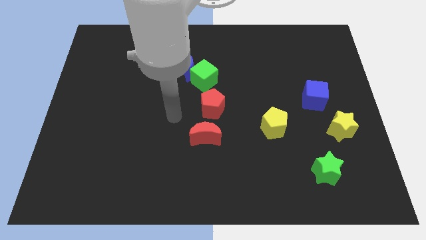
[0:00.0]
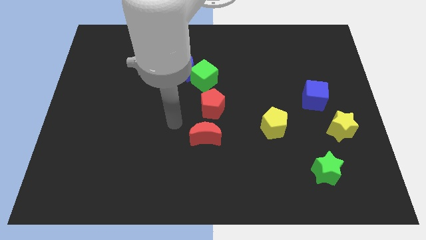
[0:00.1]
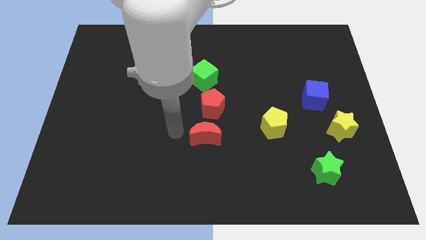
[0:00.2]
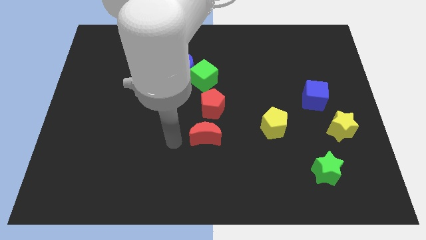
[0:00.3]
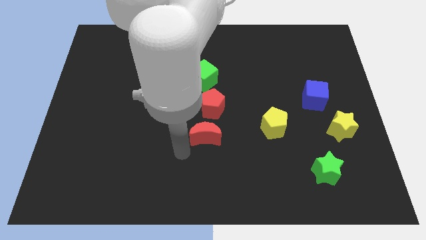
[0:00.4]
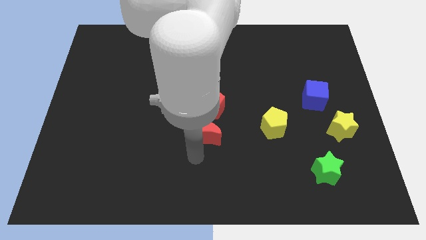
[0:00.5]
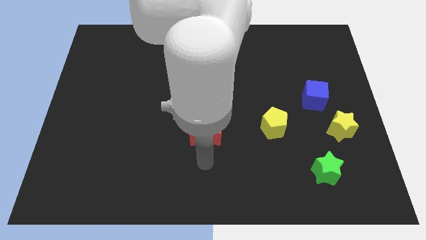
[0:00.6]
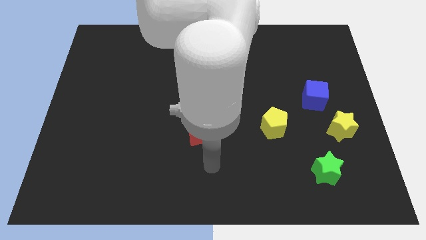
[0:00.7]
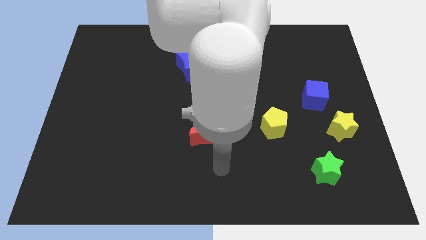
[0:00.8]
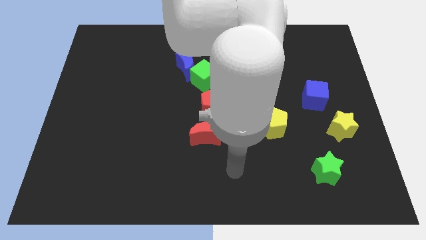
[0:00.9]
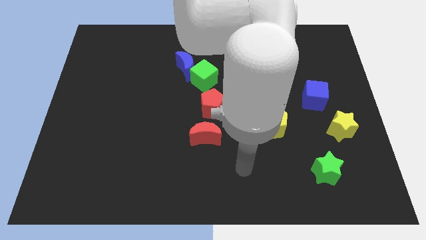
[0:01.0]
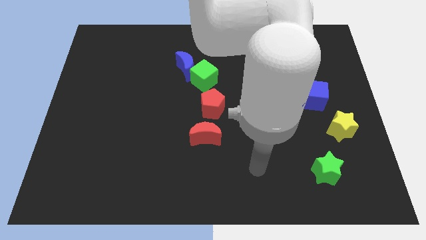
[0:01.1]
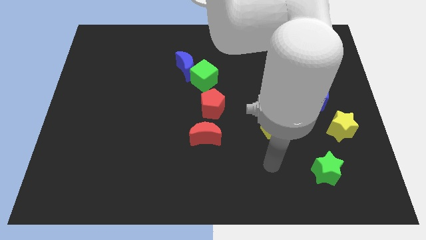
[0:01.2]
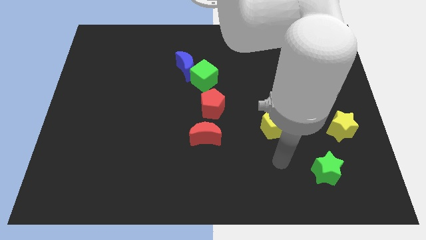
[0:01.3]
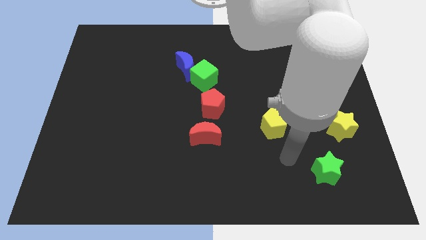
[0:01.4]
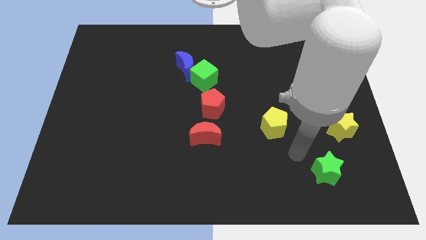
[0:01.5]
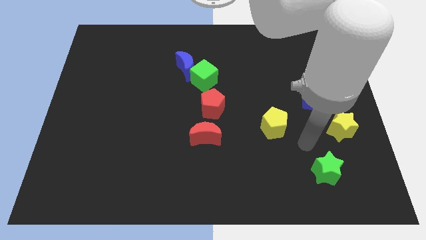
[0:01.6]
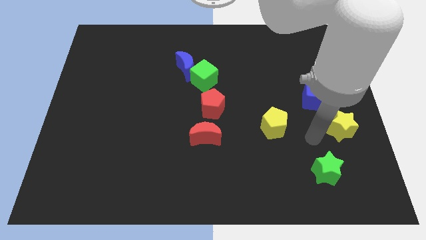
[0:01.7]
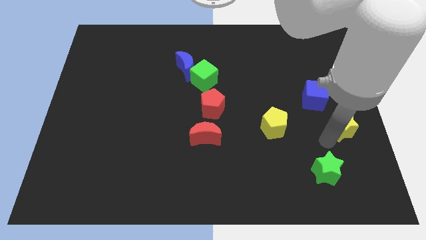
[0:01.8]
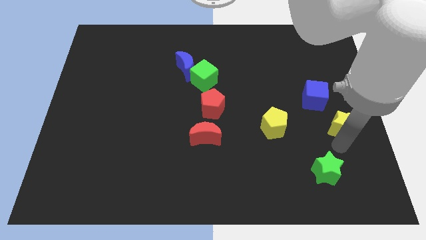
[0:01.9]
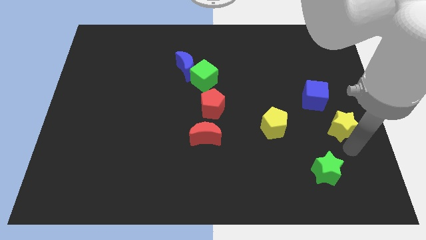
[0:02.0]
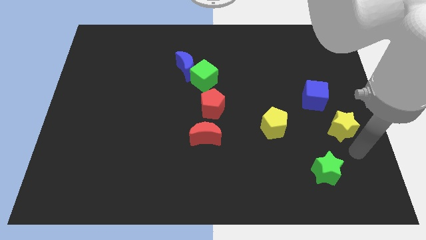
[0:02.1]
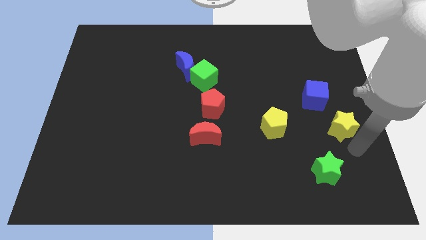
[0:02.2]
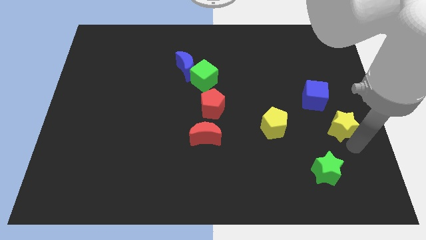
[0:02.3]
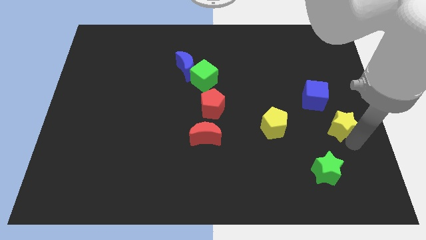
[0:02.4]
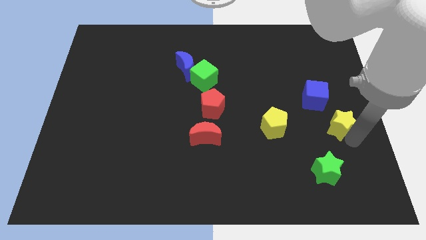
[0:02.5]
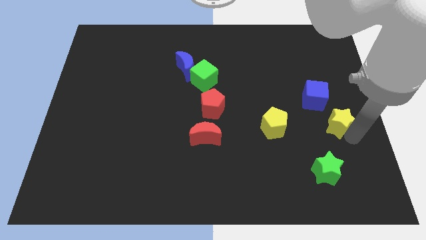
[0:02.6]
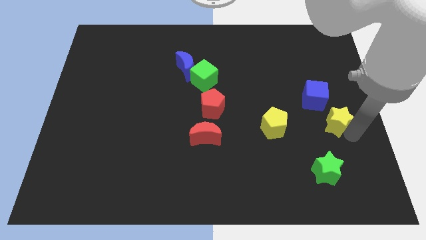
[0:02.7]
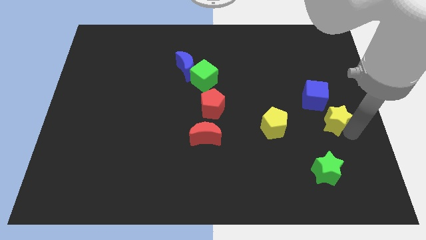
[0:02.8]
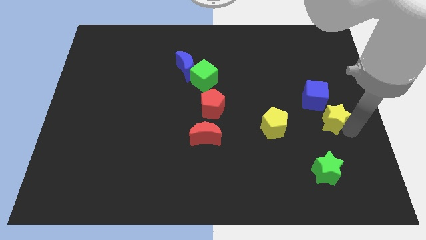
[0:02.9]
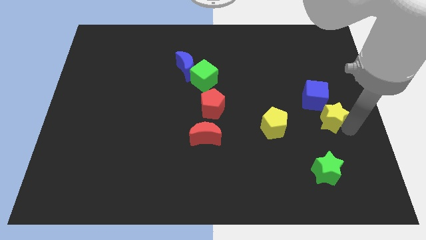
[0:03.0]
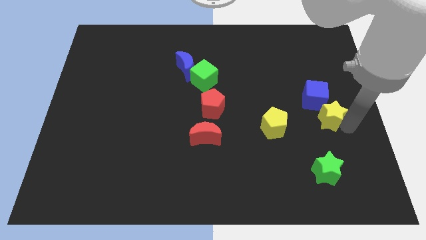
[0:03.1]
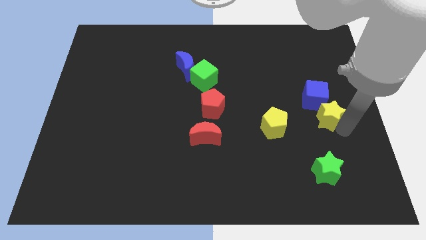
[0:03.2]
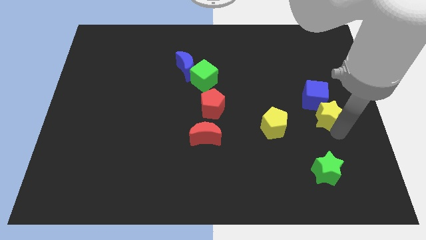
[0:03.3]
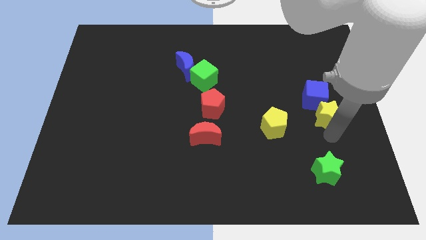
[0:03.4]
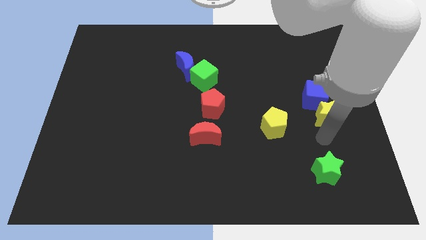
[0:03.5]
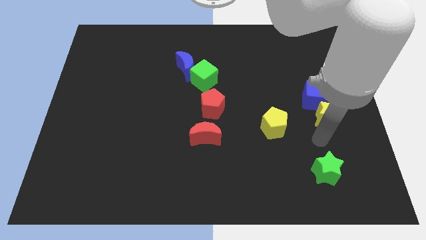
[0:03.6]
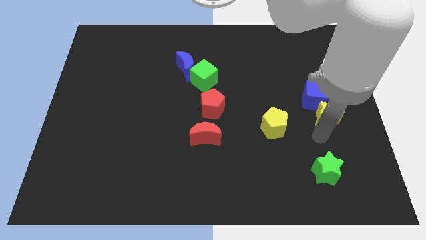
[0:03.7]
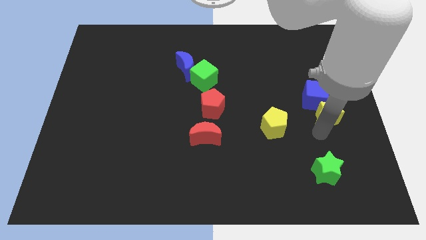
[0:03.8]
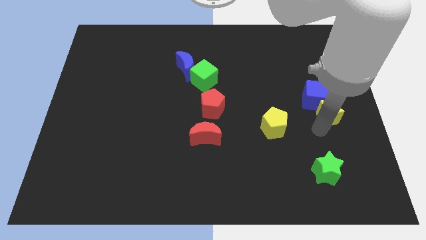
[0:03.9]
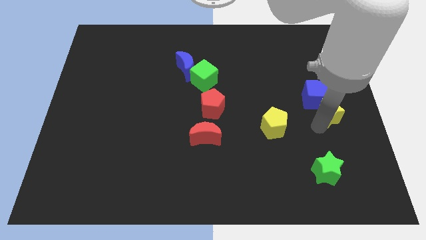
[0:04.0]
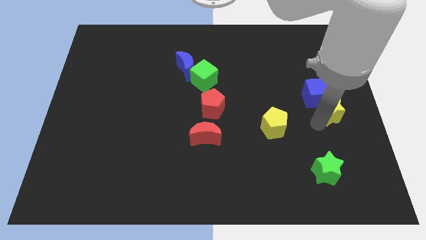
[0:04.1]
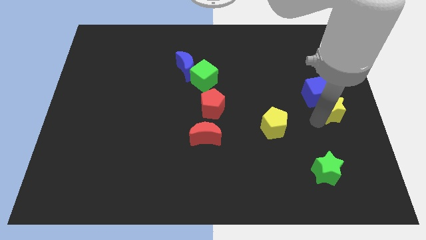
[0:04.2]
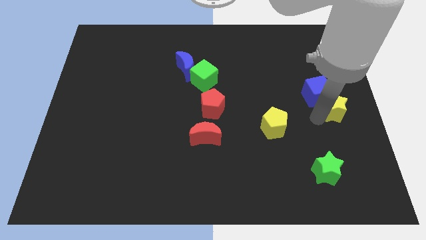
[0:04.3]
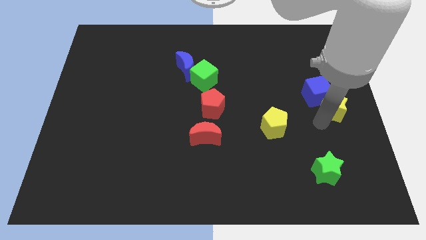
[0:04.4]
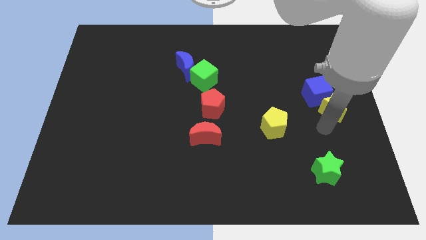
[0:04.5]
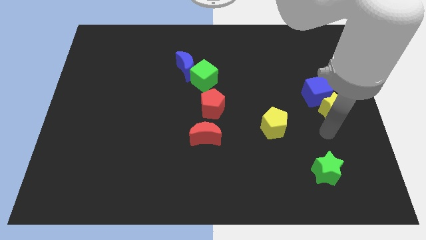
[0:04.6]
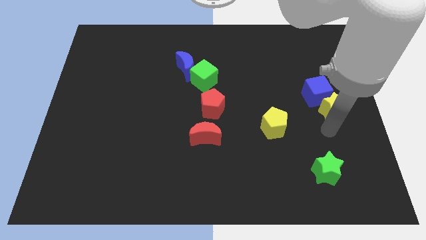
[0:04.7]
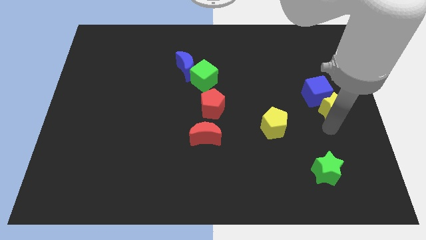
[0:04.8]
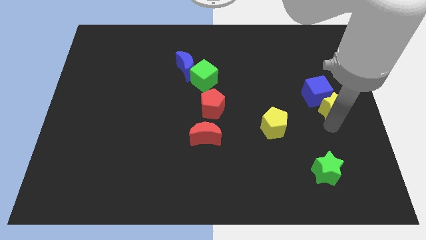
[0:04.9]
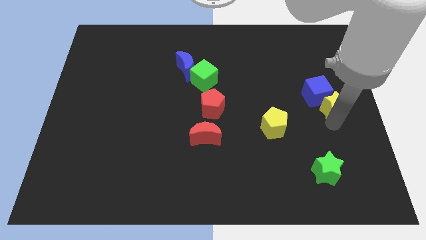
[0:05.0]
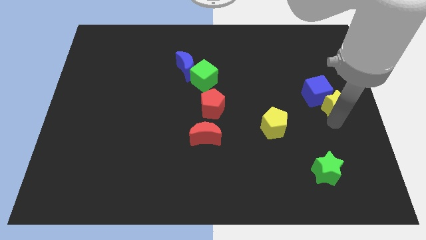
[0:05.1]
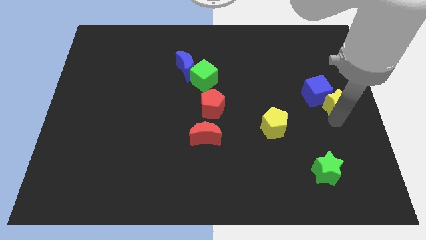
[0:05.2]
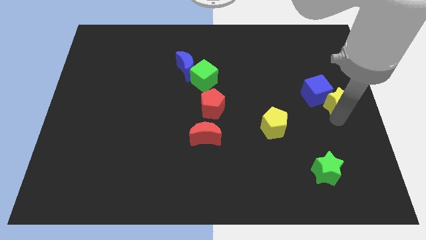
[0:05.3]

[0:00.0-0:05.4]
move the yellow star a little up

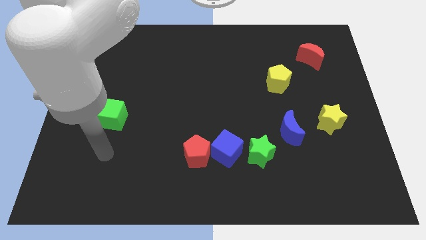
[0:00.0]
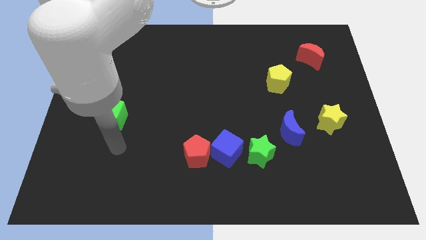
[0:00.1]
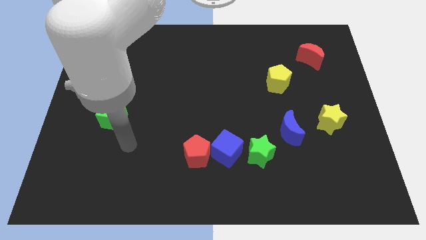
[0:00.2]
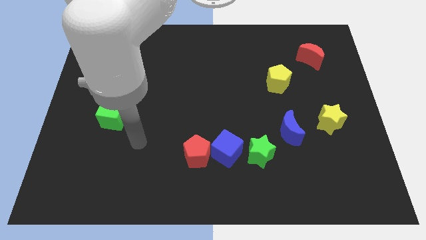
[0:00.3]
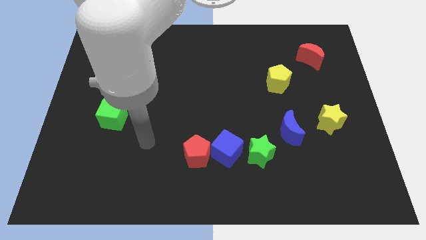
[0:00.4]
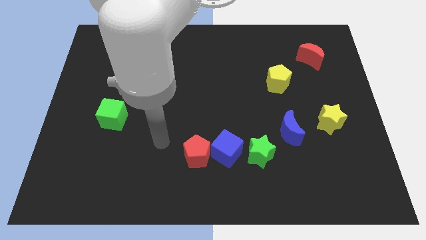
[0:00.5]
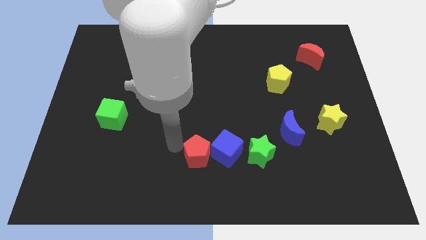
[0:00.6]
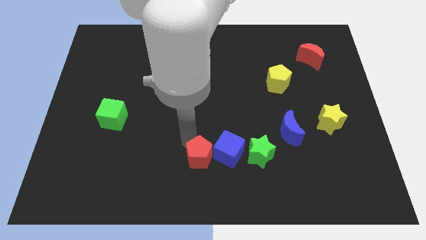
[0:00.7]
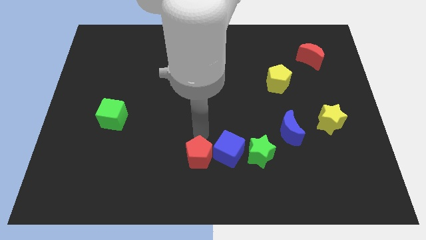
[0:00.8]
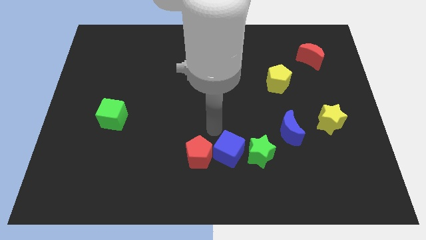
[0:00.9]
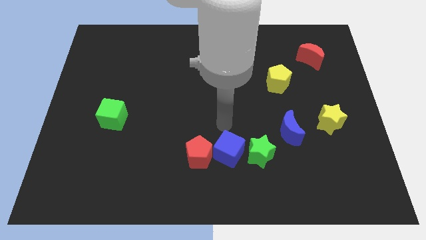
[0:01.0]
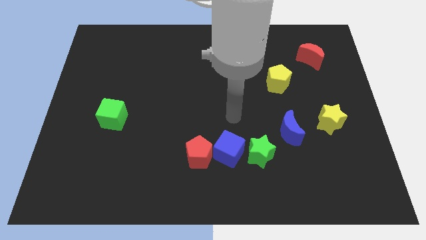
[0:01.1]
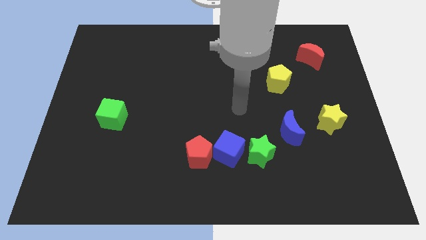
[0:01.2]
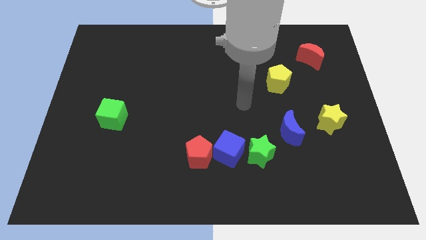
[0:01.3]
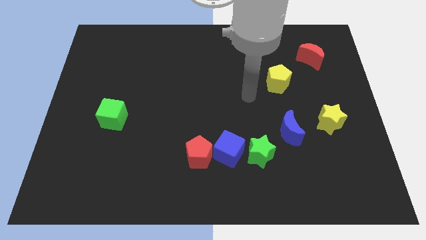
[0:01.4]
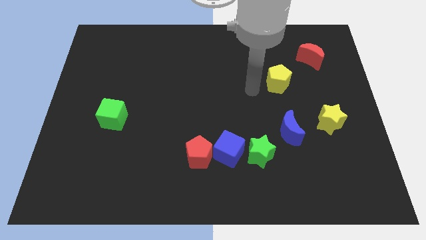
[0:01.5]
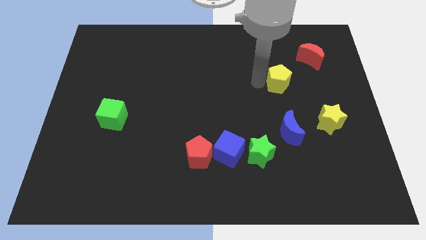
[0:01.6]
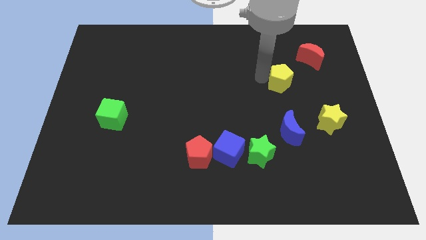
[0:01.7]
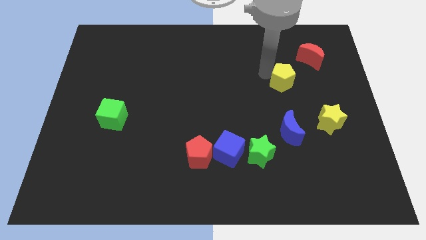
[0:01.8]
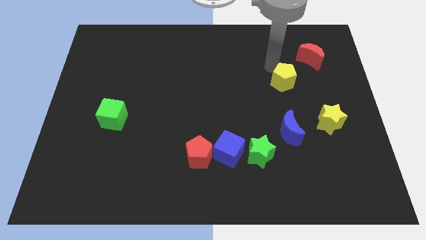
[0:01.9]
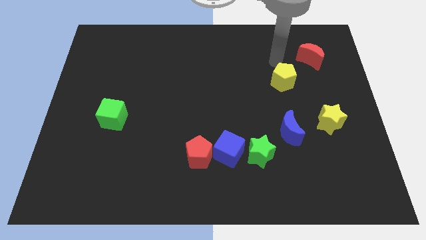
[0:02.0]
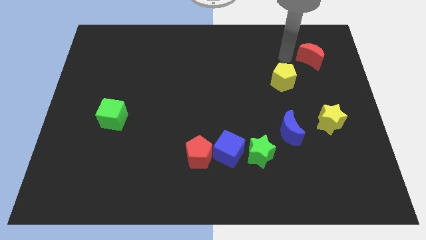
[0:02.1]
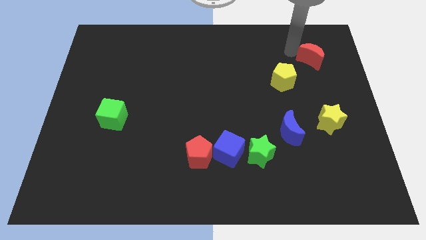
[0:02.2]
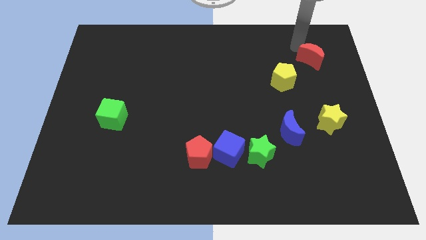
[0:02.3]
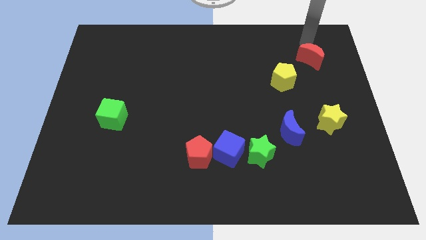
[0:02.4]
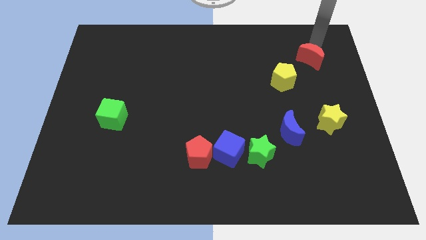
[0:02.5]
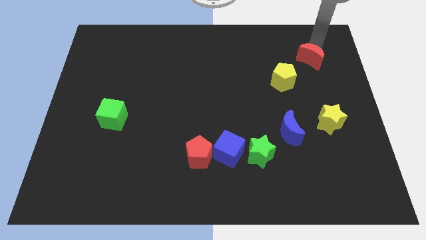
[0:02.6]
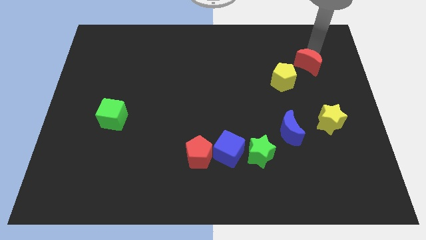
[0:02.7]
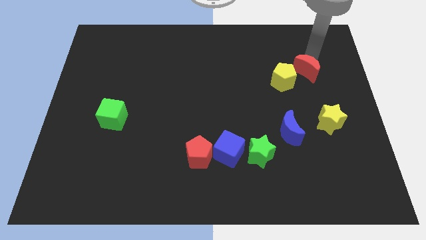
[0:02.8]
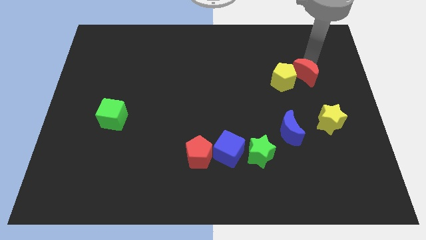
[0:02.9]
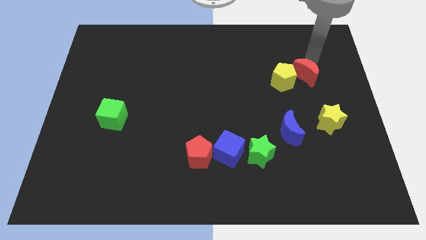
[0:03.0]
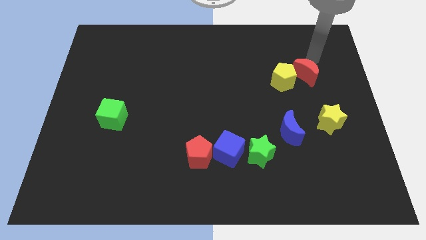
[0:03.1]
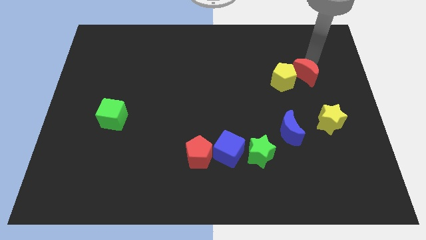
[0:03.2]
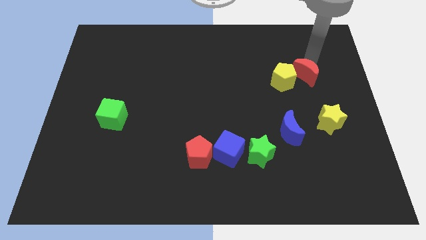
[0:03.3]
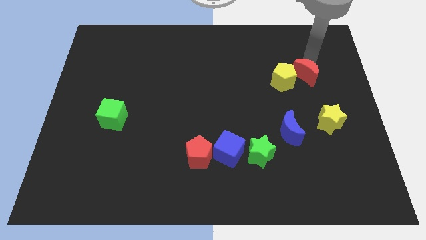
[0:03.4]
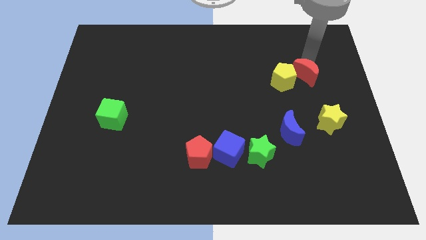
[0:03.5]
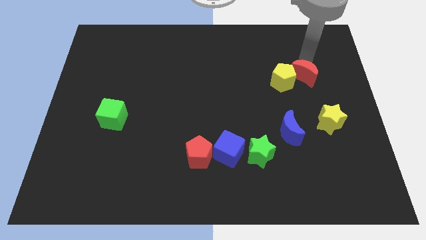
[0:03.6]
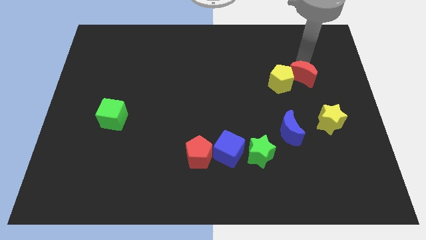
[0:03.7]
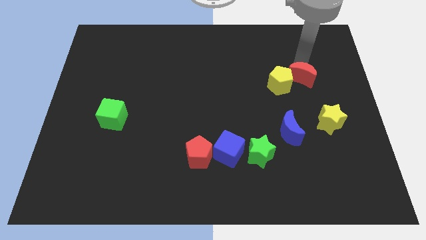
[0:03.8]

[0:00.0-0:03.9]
push the red moon somewhat downwards and left diagonally
